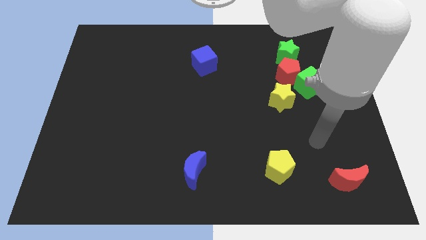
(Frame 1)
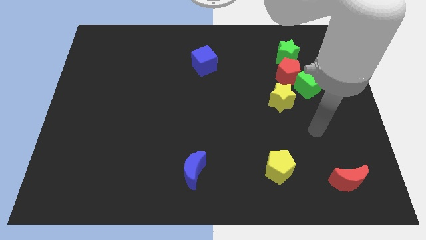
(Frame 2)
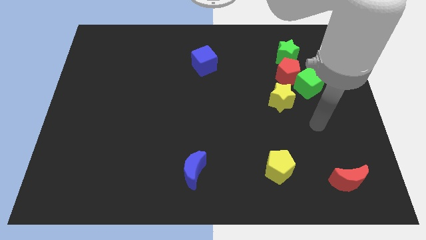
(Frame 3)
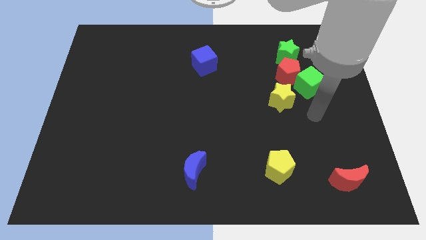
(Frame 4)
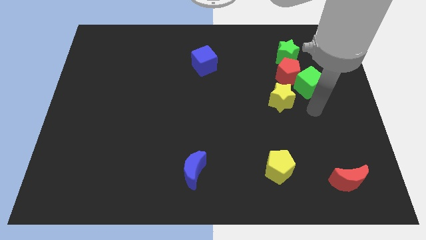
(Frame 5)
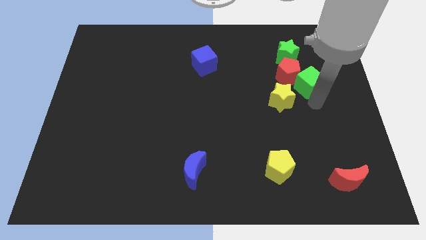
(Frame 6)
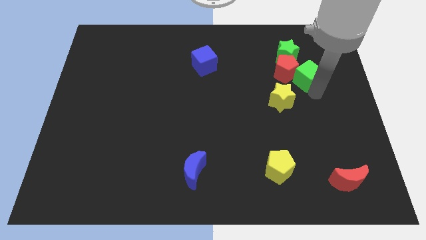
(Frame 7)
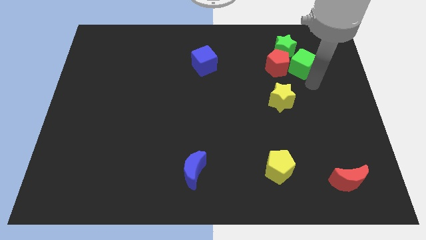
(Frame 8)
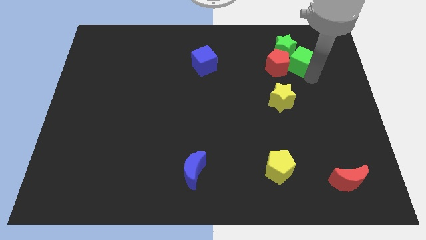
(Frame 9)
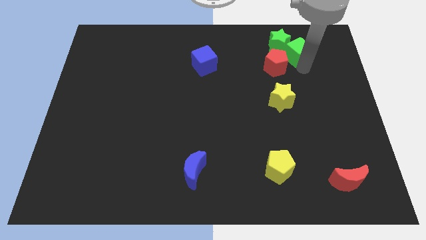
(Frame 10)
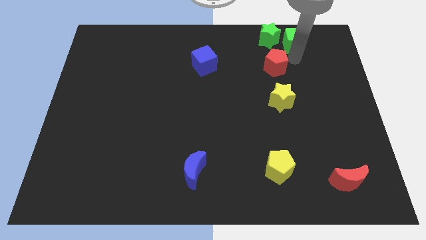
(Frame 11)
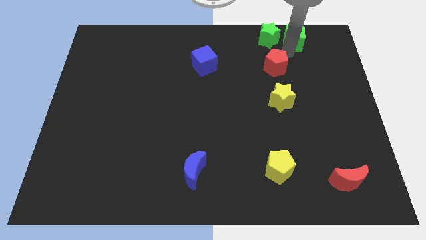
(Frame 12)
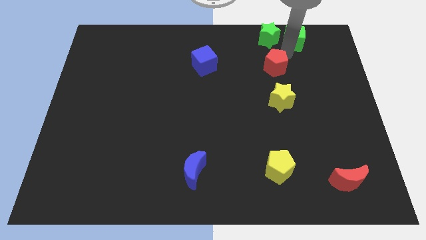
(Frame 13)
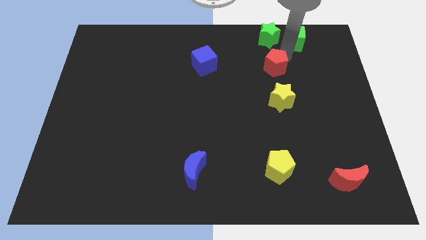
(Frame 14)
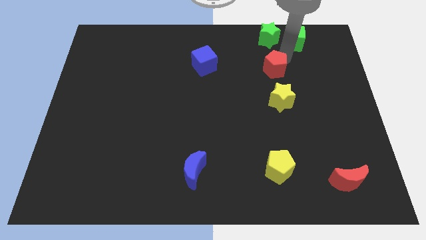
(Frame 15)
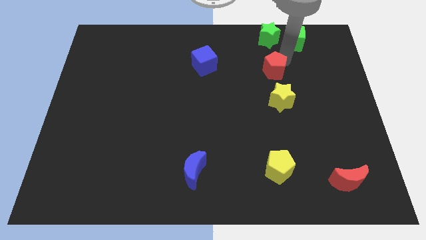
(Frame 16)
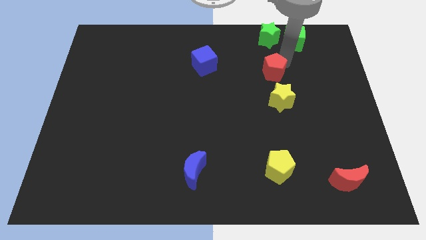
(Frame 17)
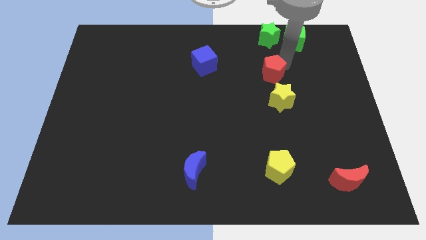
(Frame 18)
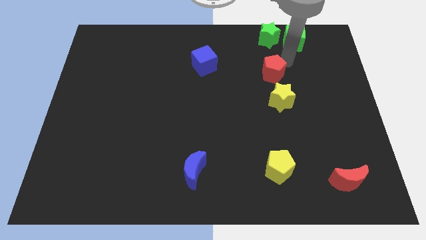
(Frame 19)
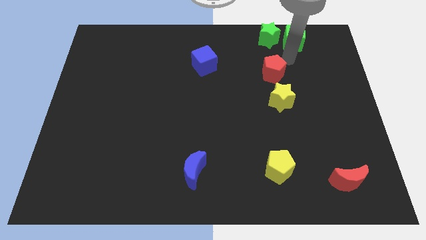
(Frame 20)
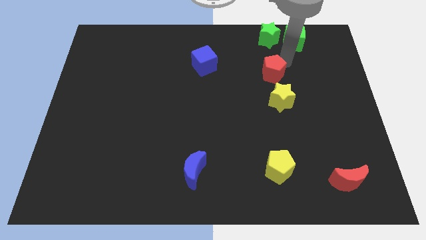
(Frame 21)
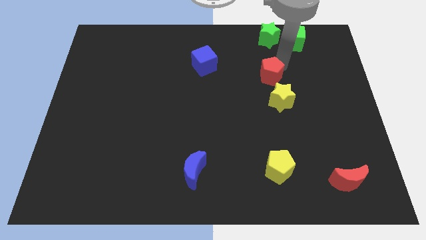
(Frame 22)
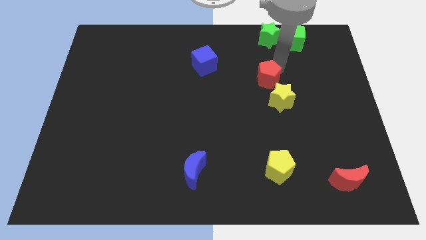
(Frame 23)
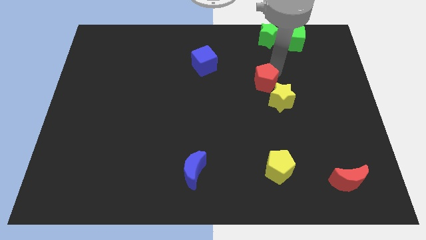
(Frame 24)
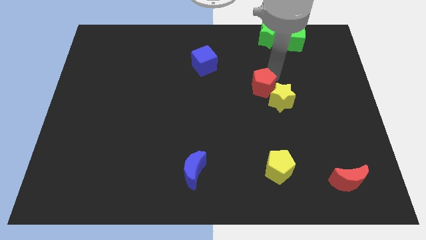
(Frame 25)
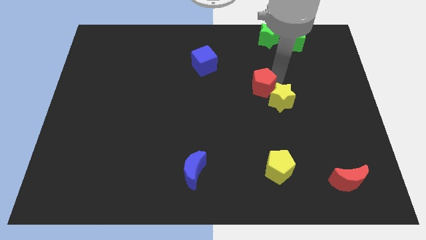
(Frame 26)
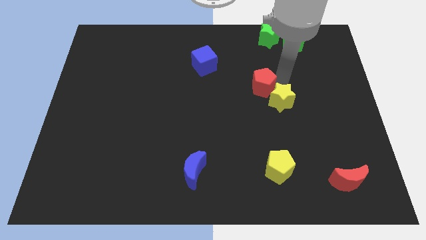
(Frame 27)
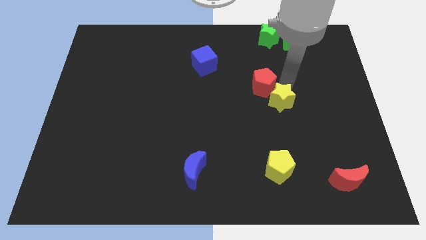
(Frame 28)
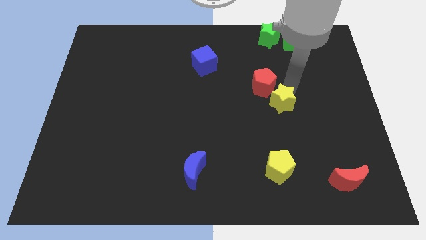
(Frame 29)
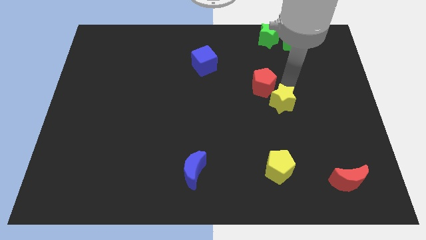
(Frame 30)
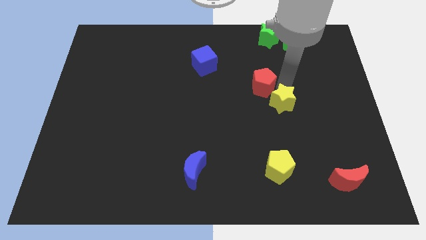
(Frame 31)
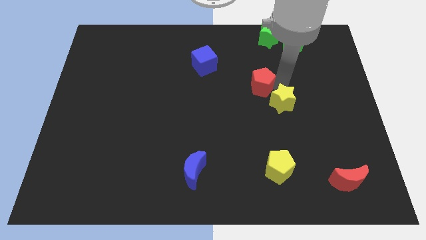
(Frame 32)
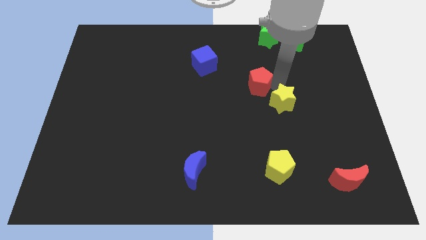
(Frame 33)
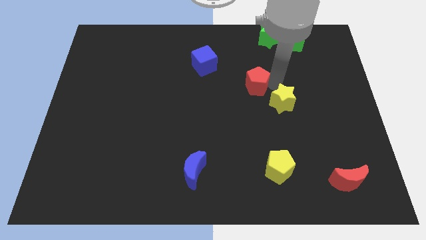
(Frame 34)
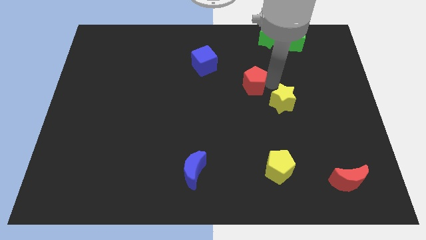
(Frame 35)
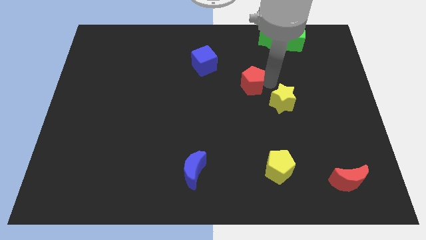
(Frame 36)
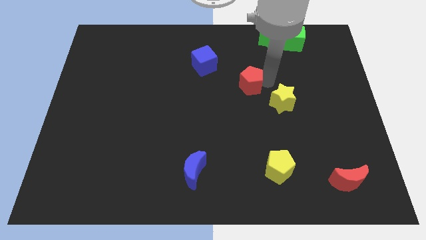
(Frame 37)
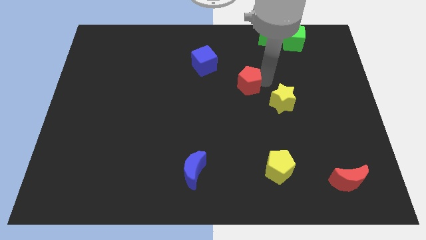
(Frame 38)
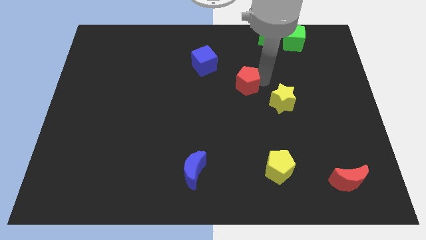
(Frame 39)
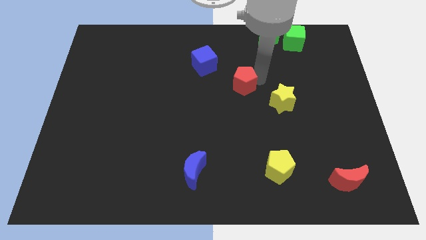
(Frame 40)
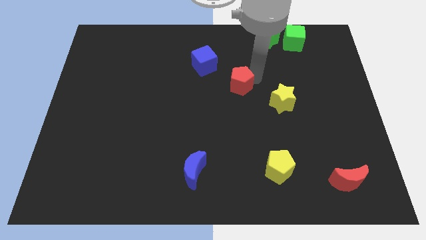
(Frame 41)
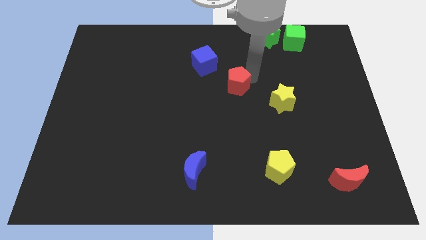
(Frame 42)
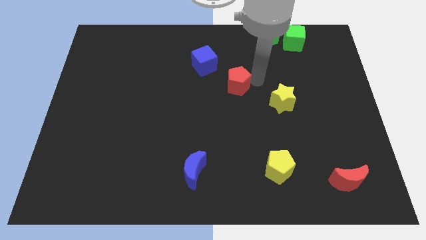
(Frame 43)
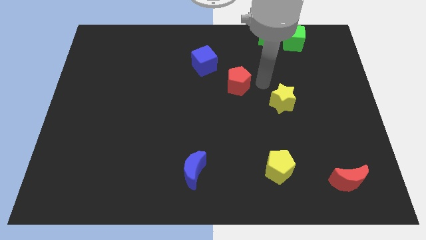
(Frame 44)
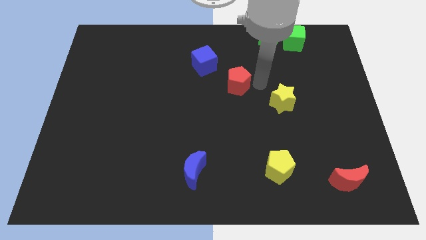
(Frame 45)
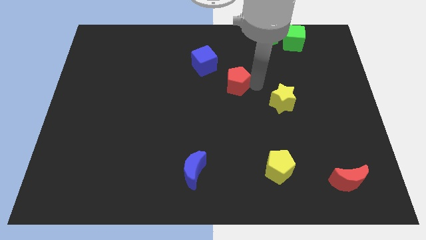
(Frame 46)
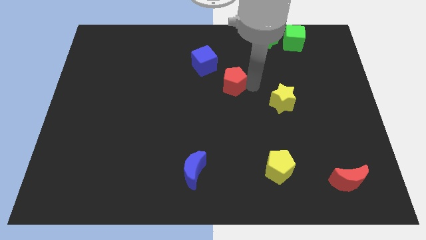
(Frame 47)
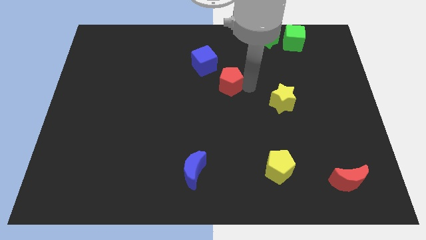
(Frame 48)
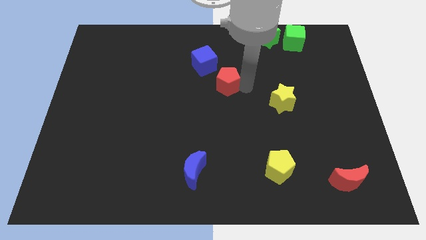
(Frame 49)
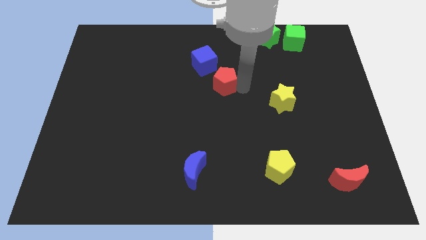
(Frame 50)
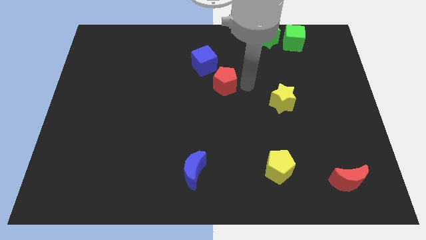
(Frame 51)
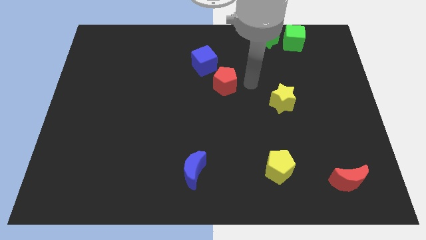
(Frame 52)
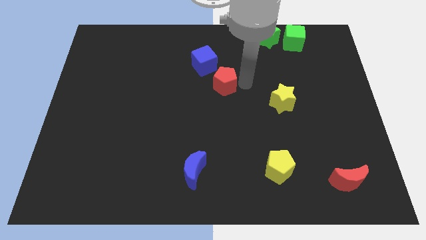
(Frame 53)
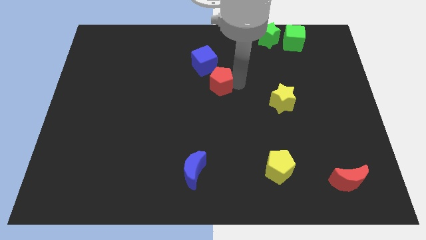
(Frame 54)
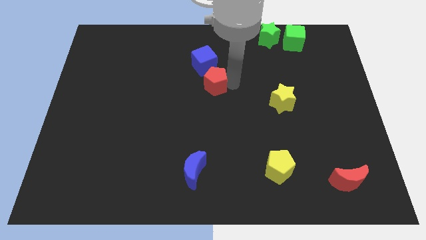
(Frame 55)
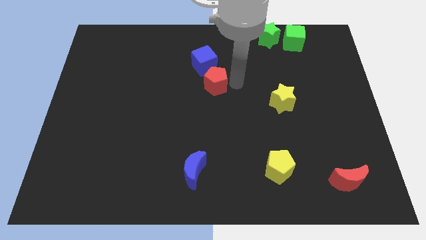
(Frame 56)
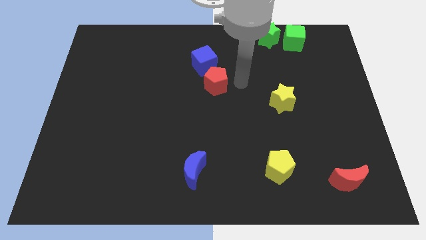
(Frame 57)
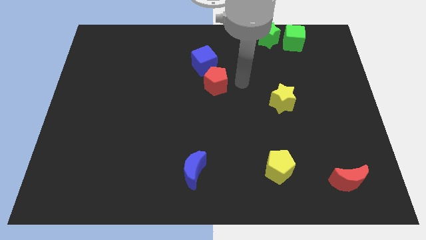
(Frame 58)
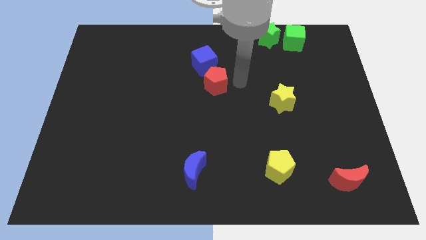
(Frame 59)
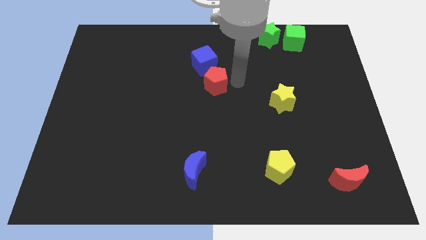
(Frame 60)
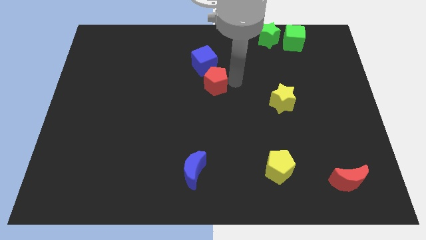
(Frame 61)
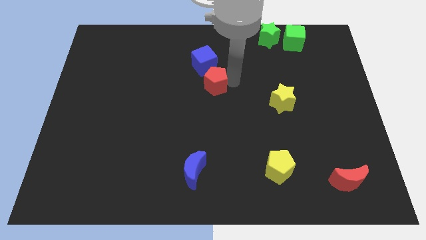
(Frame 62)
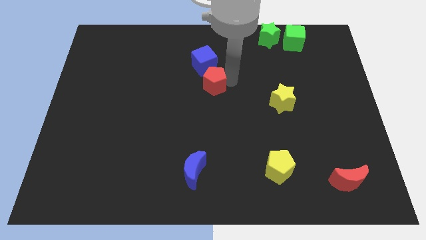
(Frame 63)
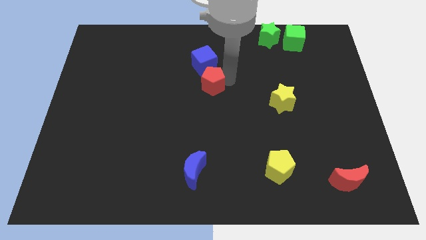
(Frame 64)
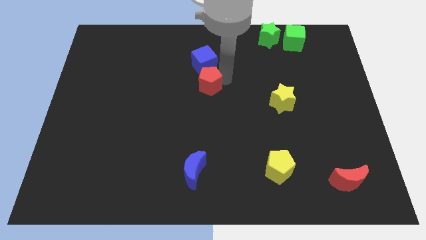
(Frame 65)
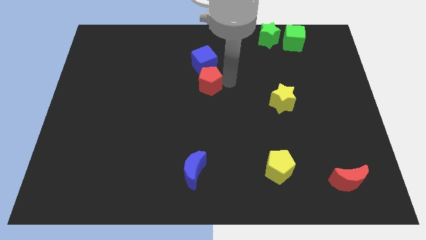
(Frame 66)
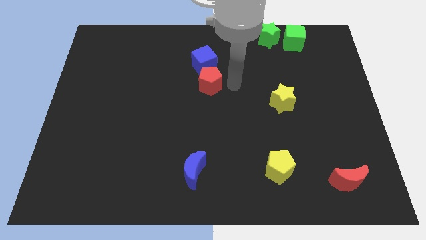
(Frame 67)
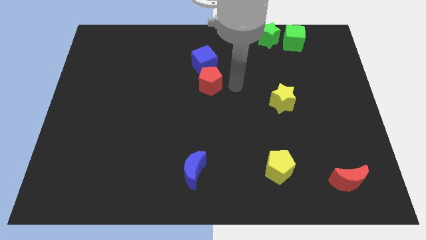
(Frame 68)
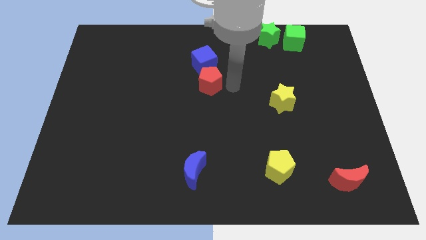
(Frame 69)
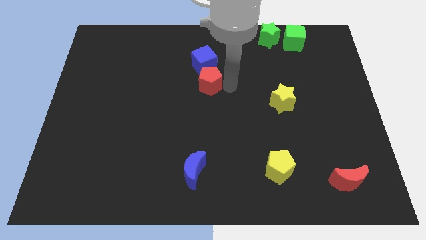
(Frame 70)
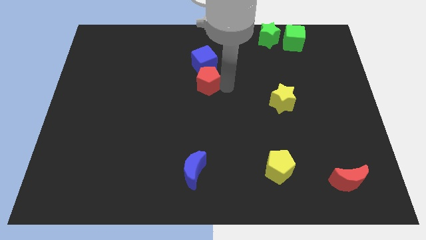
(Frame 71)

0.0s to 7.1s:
slide the red pentagon left

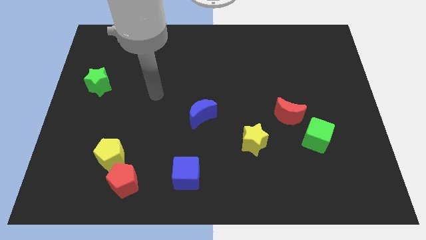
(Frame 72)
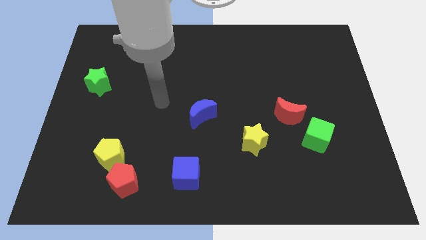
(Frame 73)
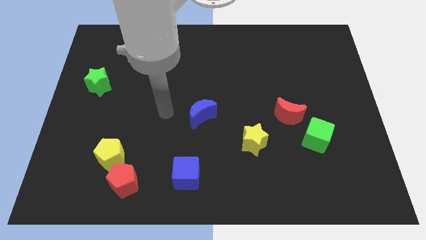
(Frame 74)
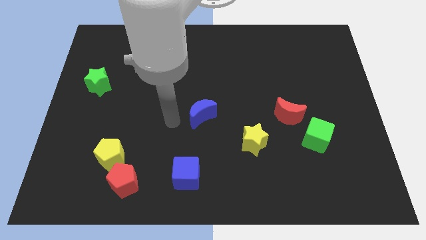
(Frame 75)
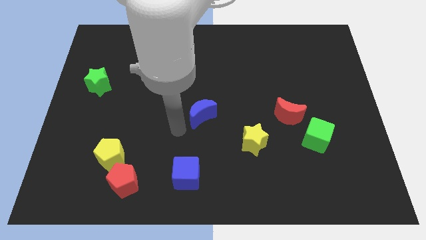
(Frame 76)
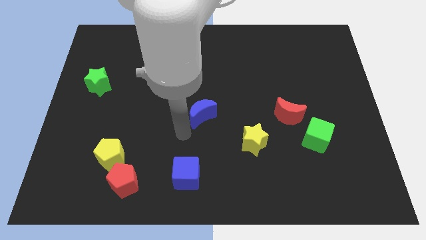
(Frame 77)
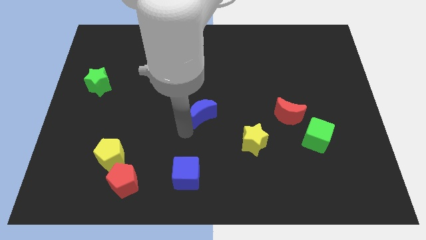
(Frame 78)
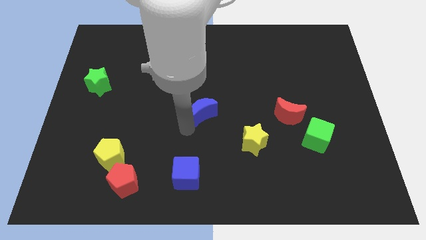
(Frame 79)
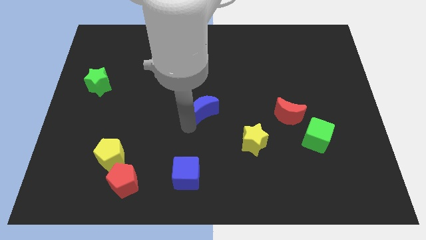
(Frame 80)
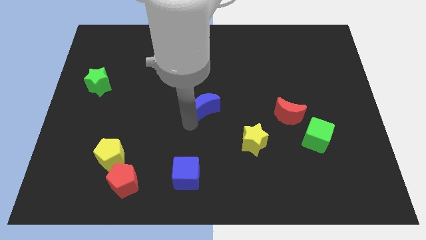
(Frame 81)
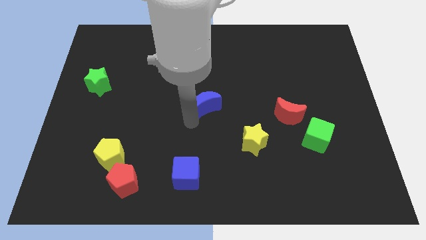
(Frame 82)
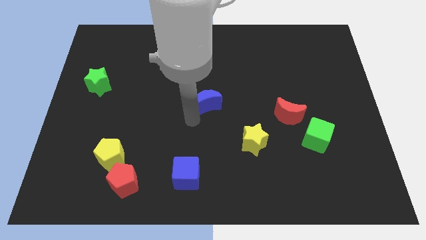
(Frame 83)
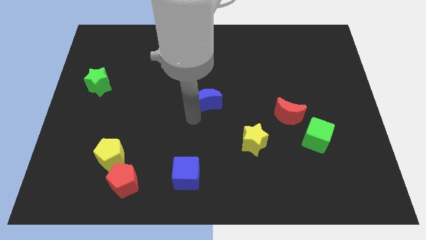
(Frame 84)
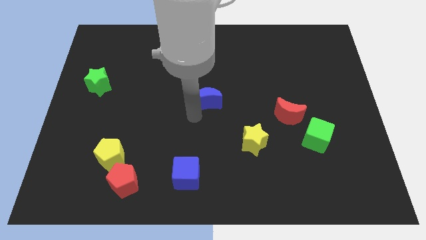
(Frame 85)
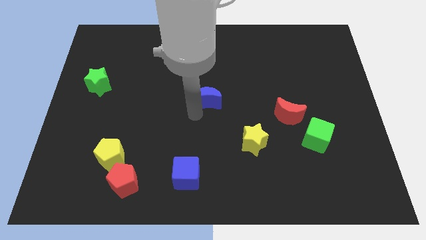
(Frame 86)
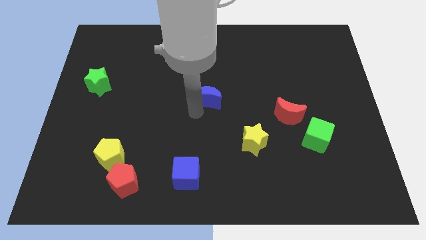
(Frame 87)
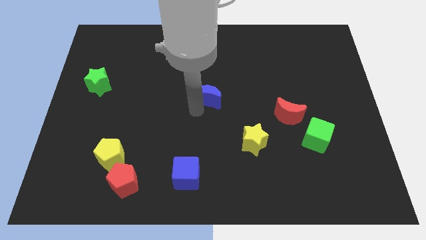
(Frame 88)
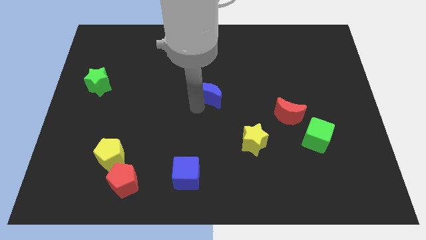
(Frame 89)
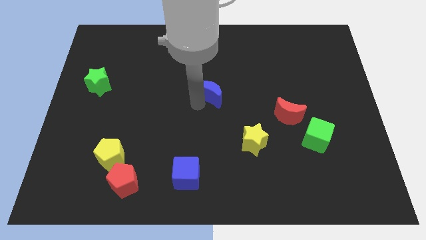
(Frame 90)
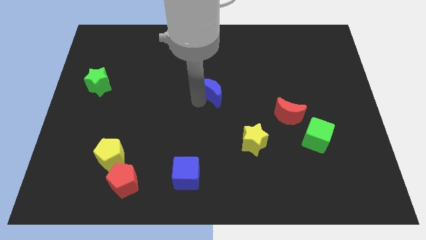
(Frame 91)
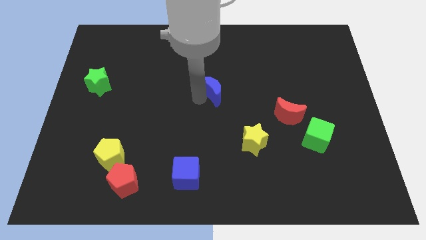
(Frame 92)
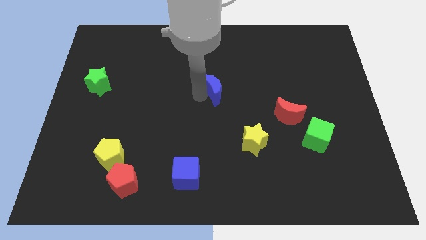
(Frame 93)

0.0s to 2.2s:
slightly move the blue moon up and then right
